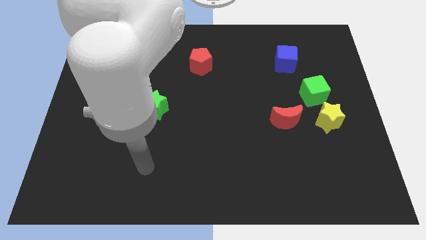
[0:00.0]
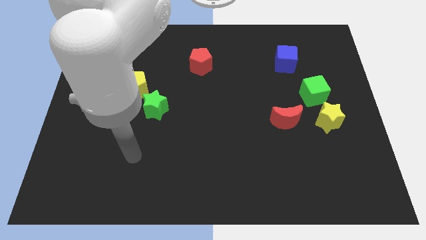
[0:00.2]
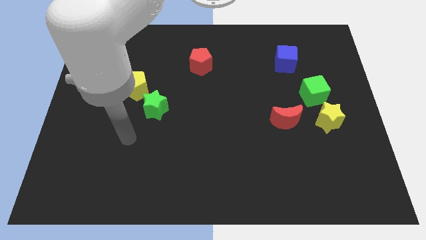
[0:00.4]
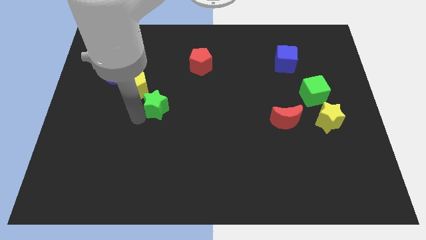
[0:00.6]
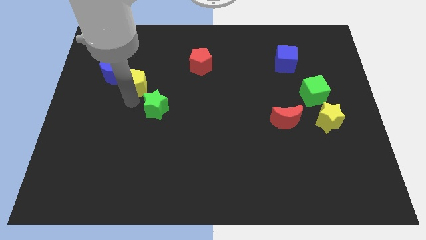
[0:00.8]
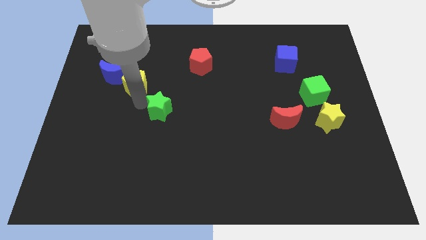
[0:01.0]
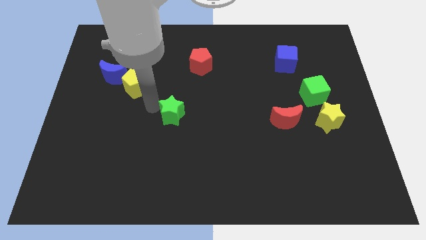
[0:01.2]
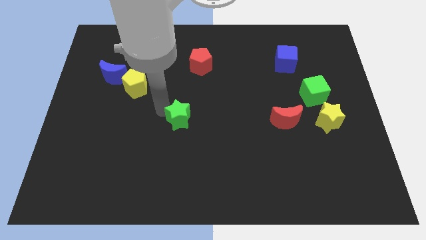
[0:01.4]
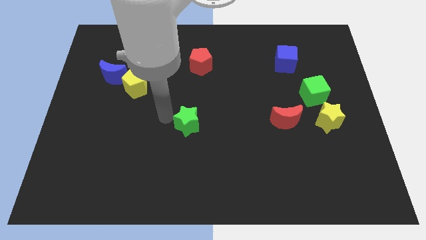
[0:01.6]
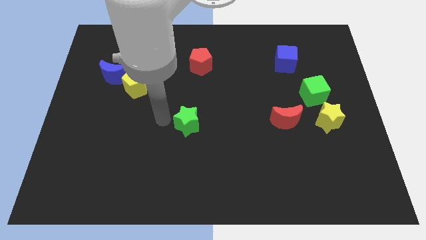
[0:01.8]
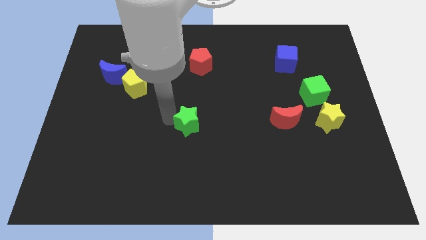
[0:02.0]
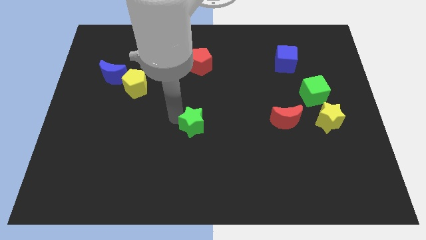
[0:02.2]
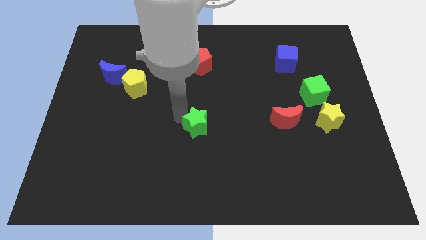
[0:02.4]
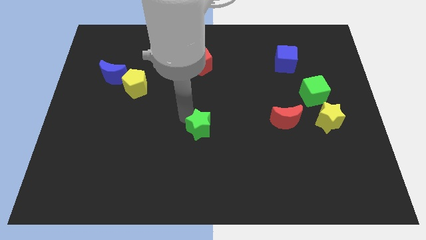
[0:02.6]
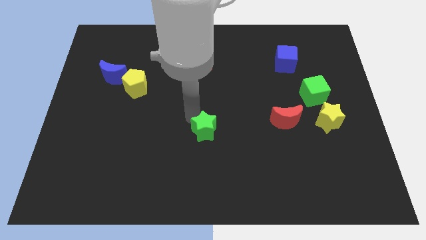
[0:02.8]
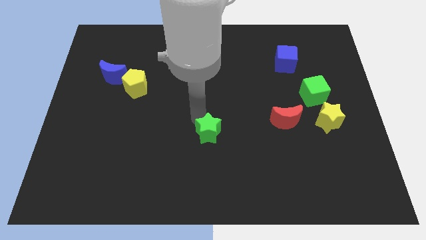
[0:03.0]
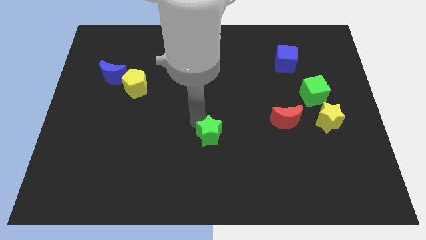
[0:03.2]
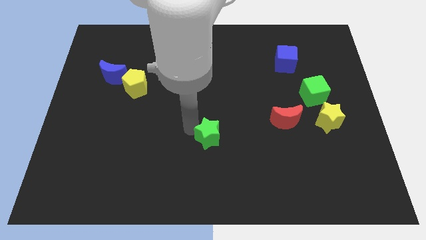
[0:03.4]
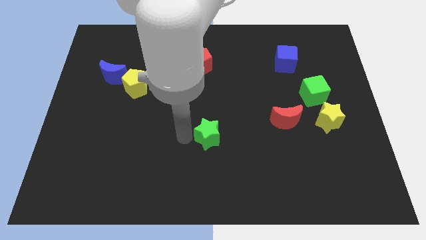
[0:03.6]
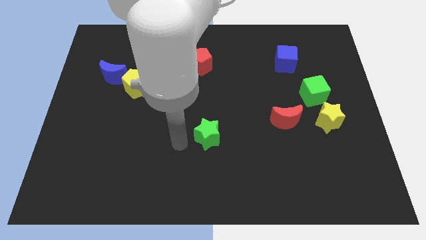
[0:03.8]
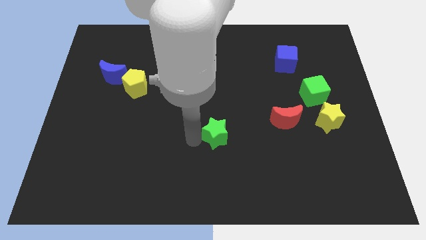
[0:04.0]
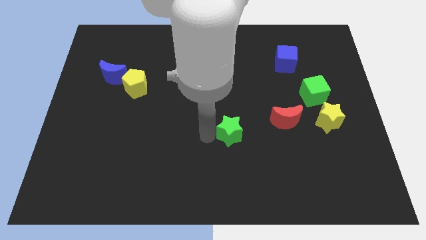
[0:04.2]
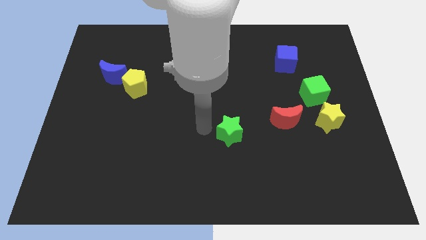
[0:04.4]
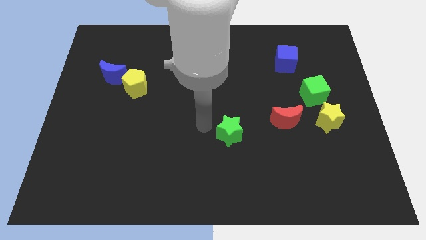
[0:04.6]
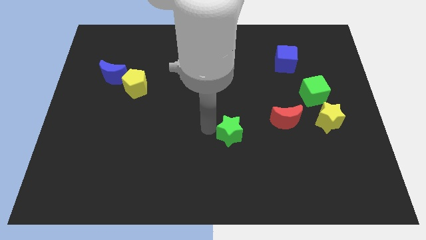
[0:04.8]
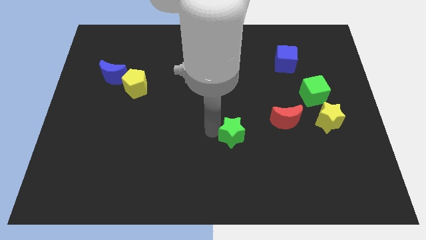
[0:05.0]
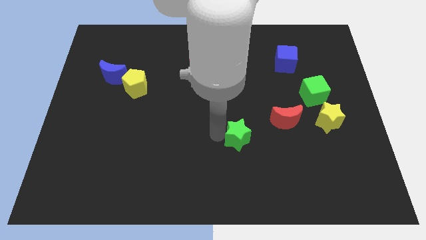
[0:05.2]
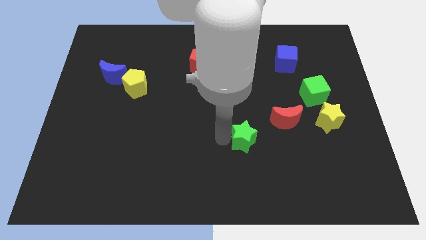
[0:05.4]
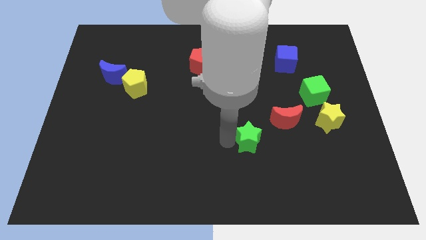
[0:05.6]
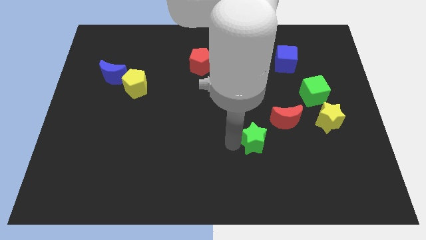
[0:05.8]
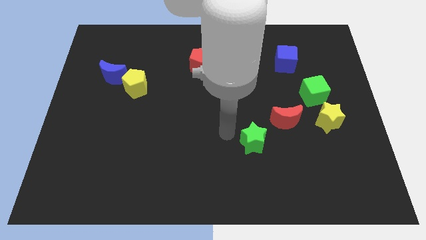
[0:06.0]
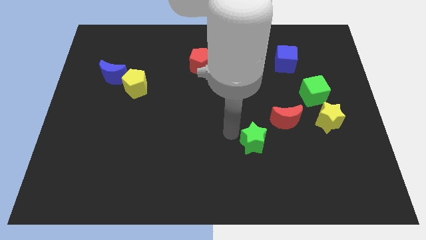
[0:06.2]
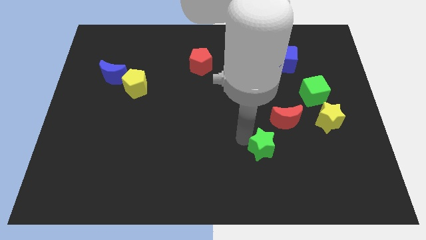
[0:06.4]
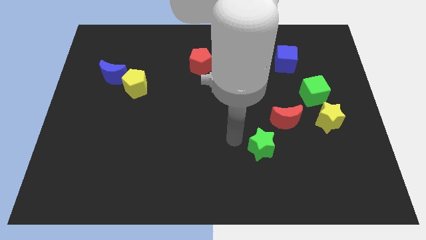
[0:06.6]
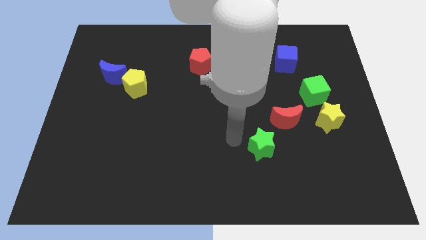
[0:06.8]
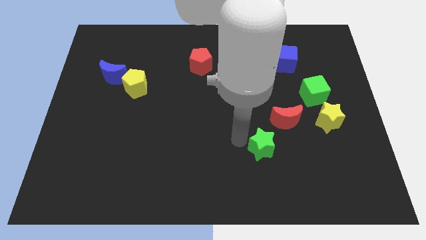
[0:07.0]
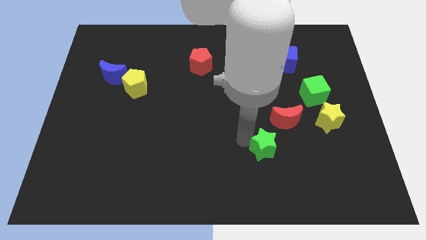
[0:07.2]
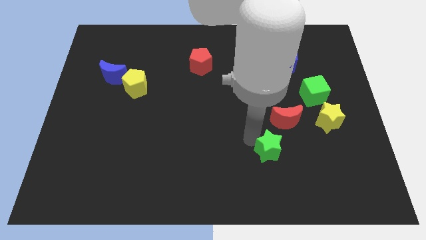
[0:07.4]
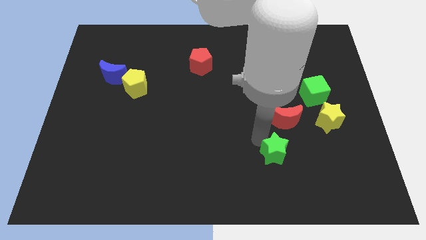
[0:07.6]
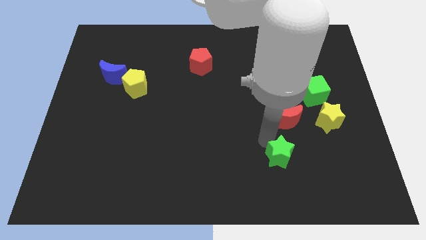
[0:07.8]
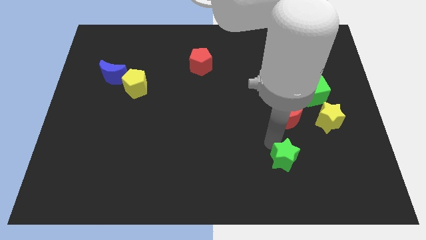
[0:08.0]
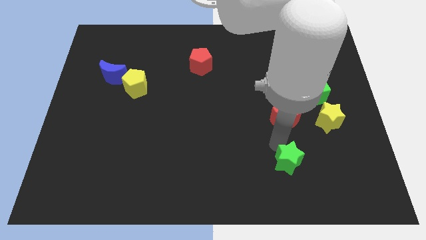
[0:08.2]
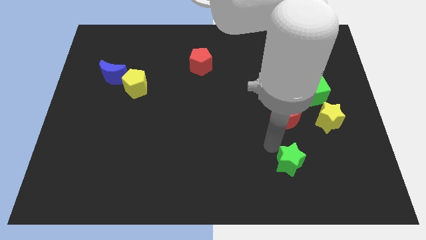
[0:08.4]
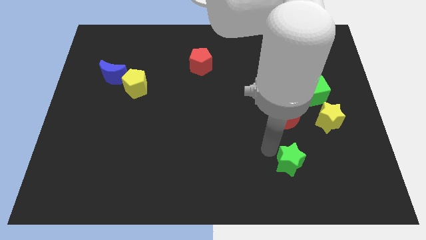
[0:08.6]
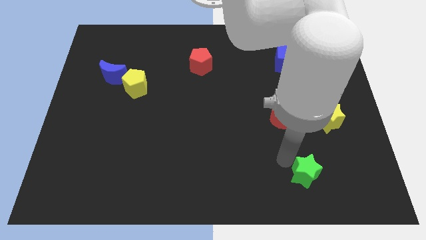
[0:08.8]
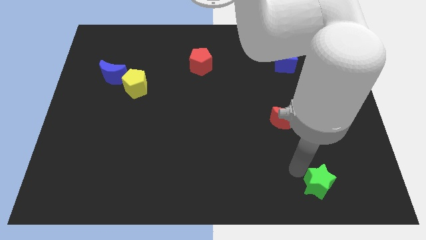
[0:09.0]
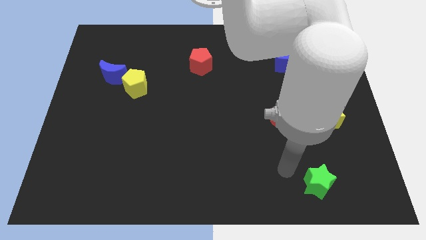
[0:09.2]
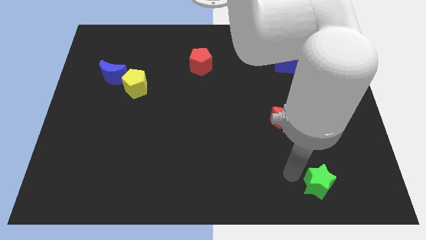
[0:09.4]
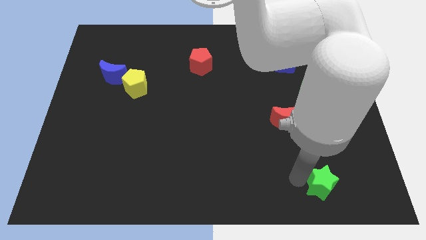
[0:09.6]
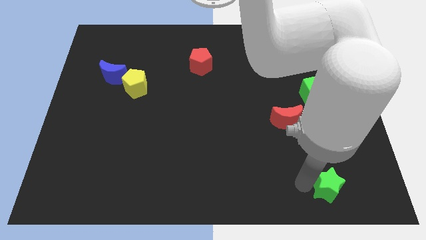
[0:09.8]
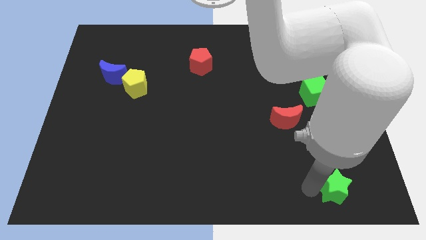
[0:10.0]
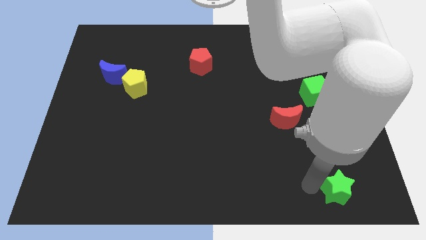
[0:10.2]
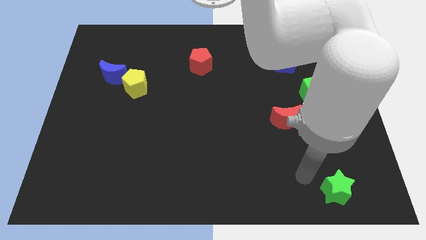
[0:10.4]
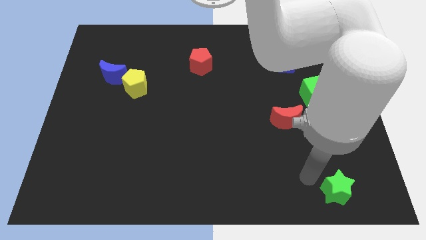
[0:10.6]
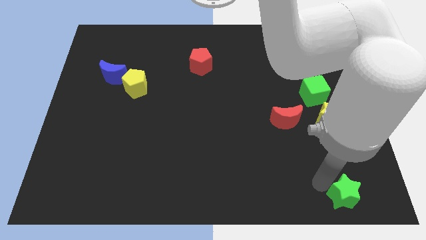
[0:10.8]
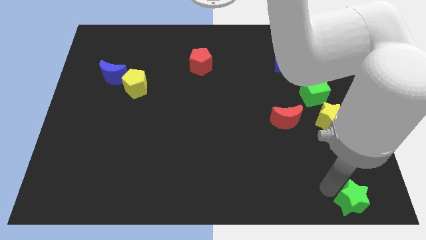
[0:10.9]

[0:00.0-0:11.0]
push the green star to the bottom right corner
